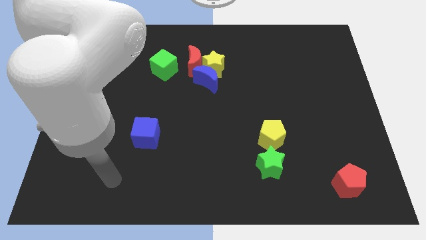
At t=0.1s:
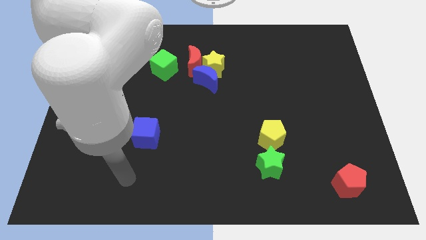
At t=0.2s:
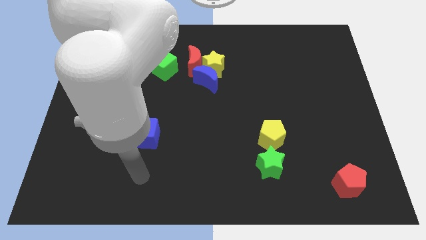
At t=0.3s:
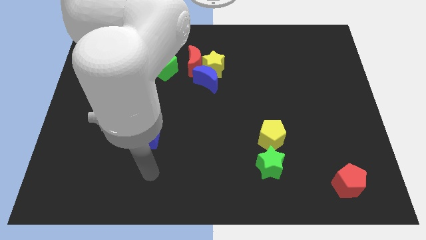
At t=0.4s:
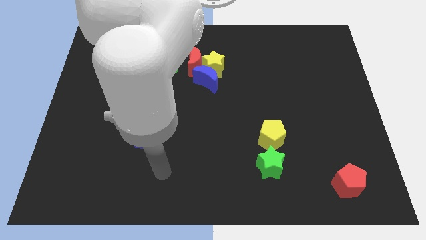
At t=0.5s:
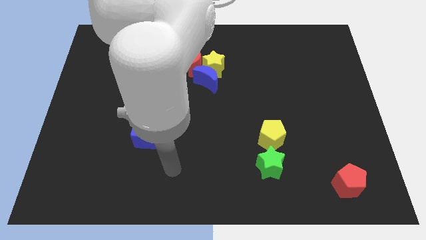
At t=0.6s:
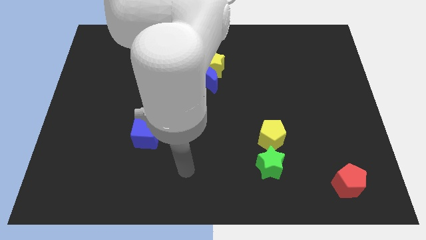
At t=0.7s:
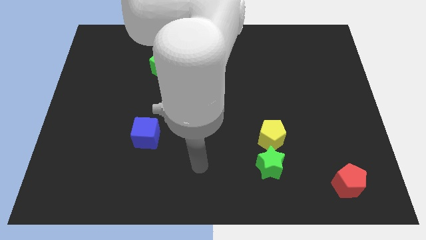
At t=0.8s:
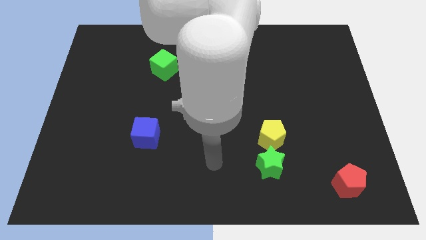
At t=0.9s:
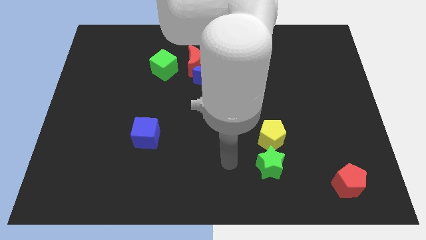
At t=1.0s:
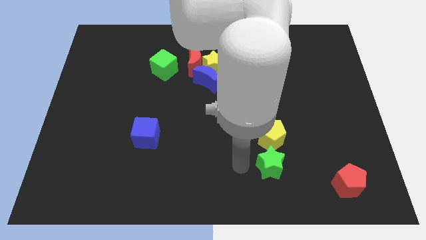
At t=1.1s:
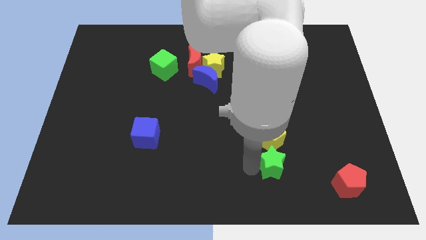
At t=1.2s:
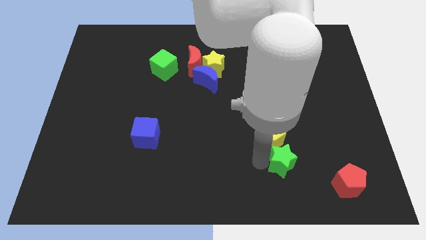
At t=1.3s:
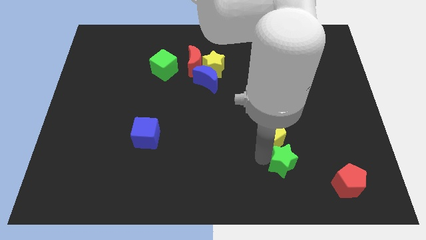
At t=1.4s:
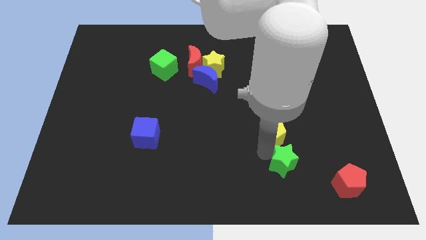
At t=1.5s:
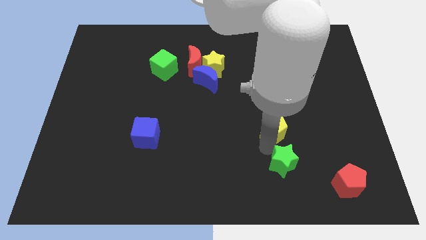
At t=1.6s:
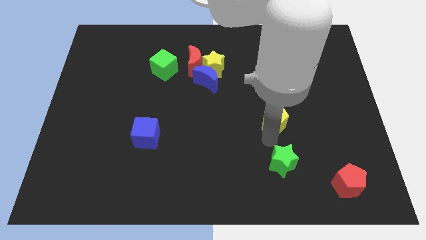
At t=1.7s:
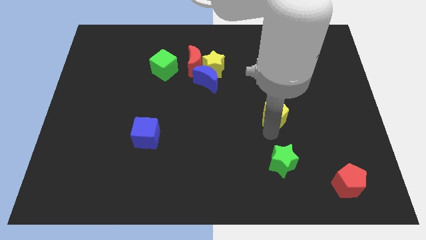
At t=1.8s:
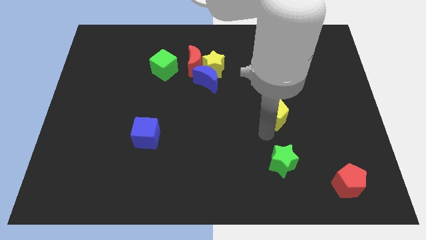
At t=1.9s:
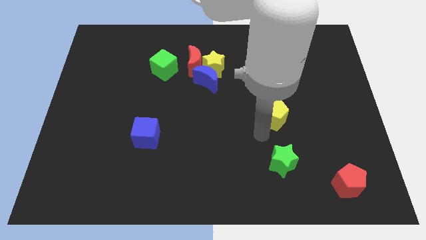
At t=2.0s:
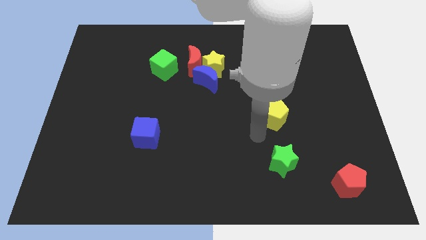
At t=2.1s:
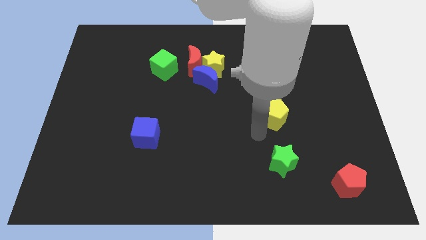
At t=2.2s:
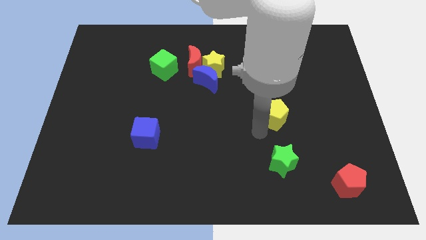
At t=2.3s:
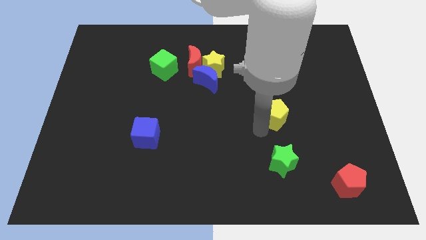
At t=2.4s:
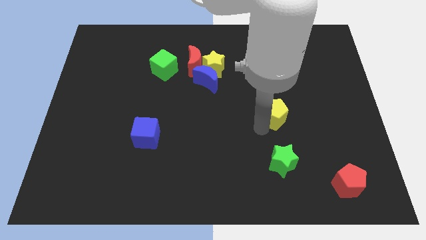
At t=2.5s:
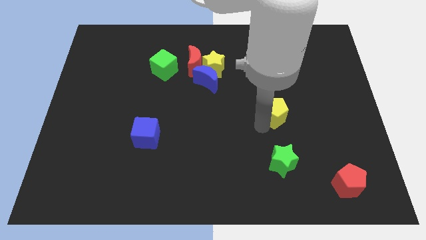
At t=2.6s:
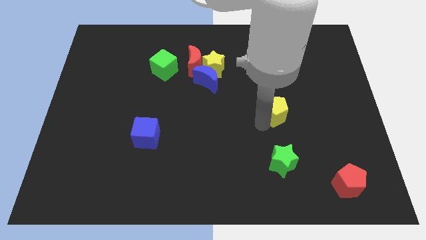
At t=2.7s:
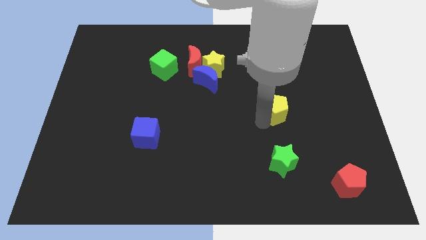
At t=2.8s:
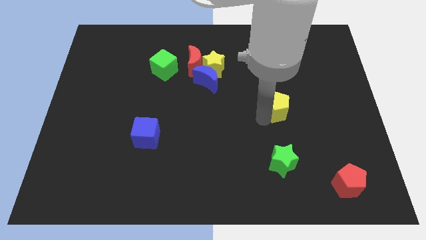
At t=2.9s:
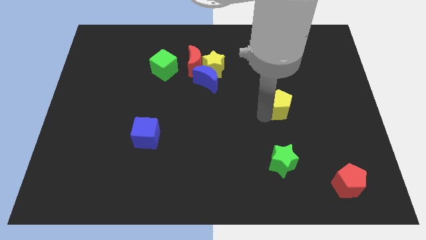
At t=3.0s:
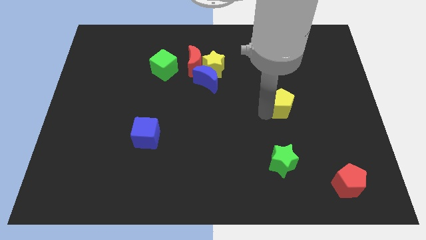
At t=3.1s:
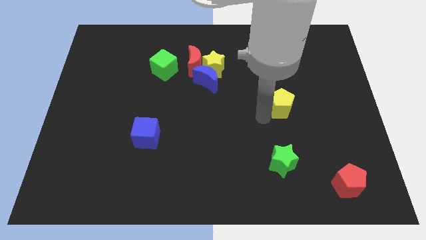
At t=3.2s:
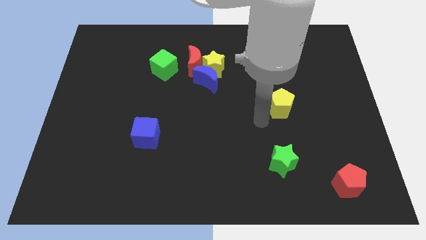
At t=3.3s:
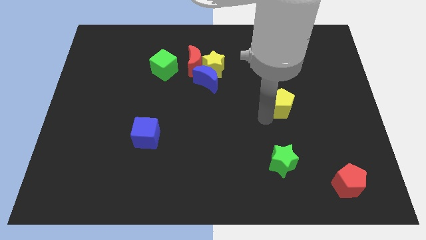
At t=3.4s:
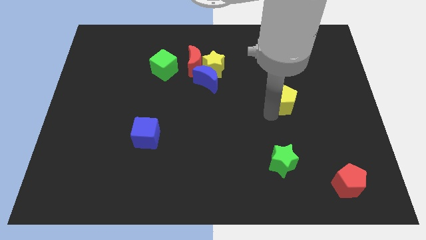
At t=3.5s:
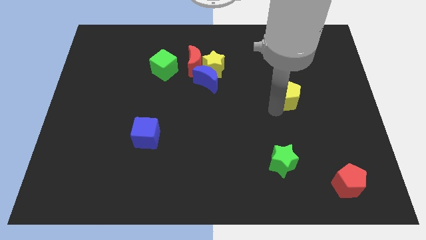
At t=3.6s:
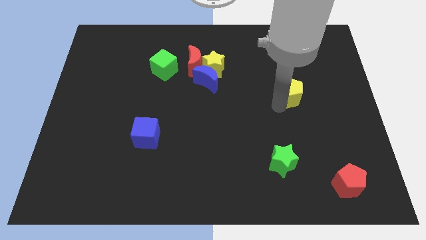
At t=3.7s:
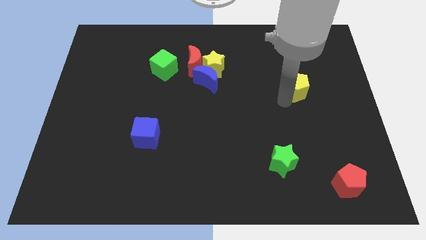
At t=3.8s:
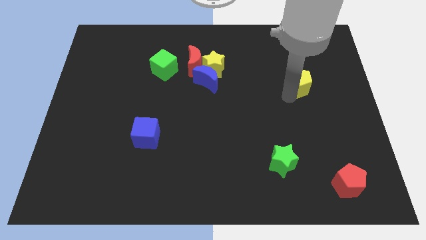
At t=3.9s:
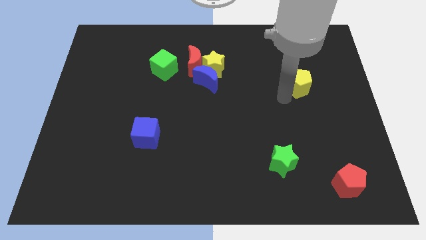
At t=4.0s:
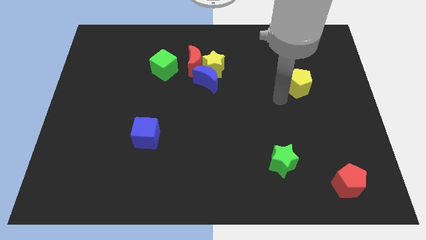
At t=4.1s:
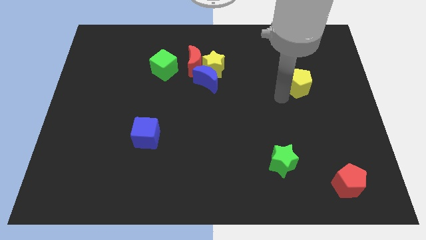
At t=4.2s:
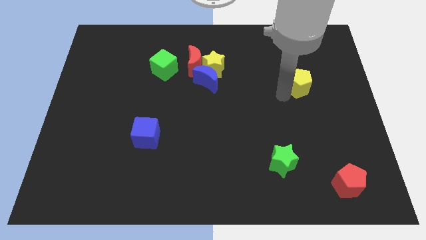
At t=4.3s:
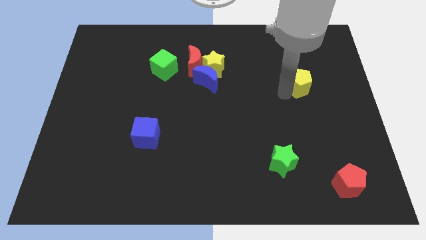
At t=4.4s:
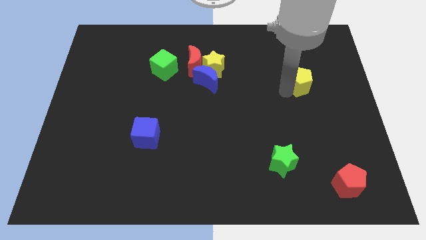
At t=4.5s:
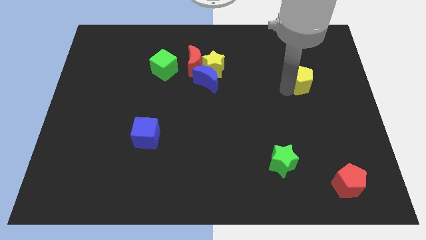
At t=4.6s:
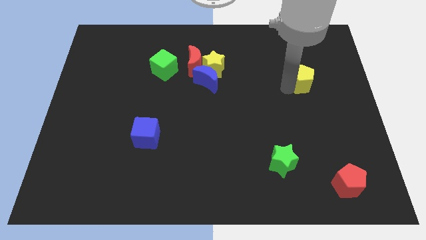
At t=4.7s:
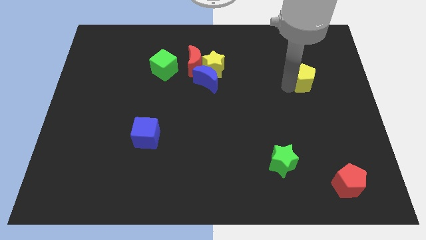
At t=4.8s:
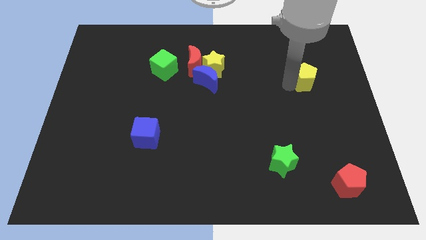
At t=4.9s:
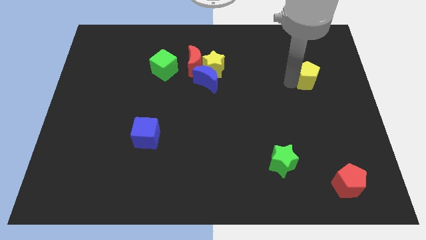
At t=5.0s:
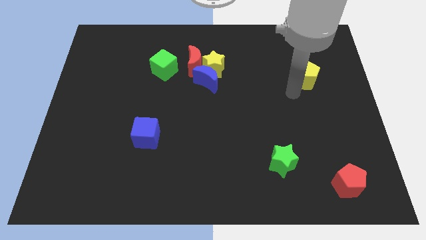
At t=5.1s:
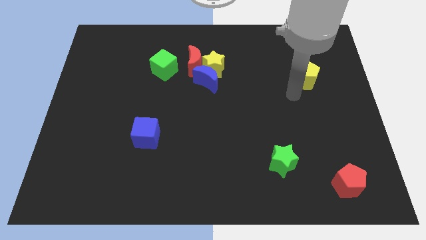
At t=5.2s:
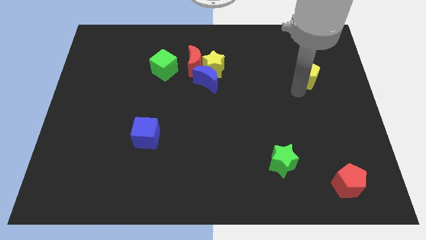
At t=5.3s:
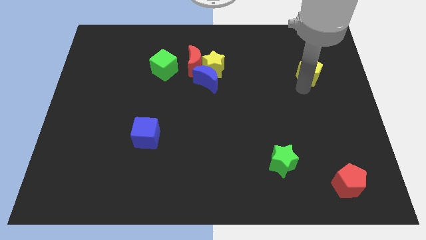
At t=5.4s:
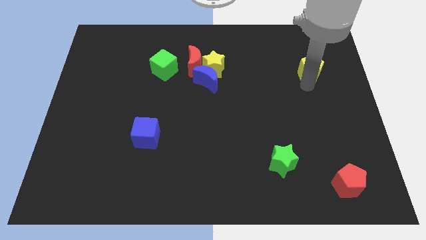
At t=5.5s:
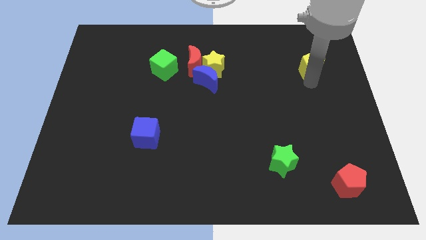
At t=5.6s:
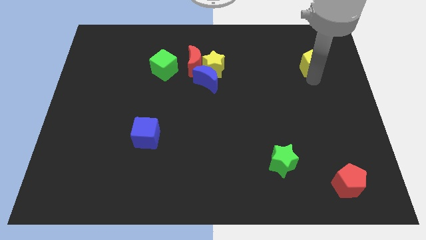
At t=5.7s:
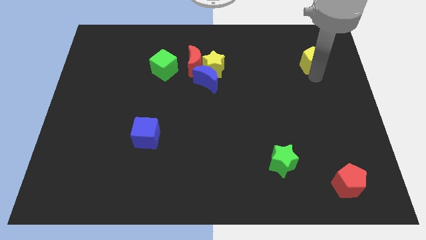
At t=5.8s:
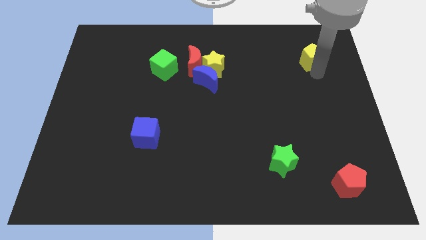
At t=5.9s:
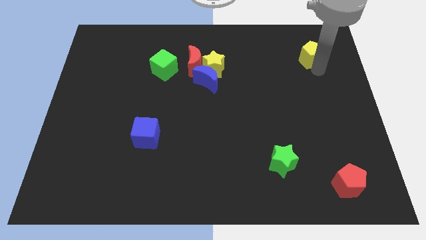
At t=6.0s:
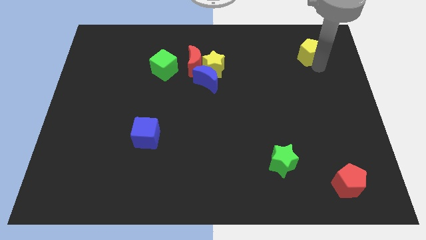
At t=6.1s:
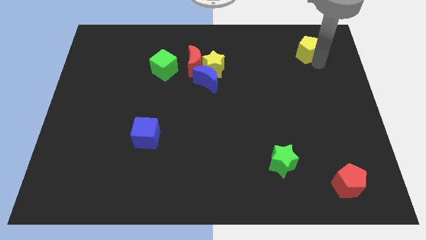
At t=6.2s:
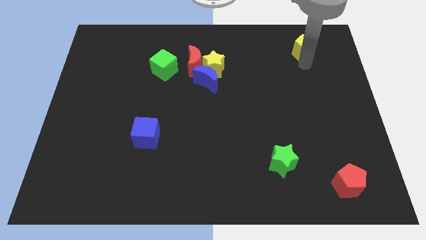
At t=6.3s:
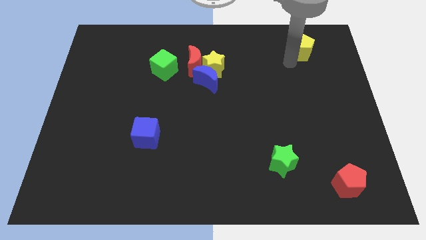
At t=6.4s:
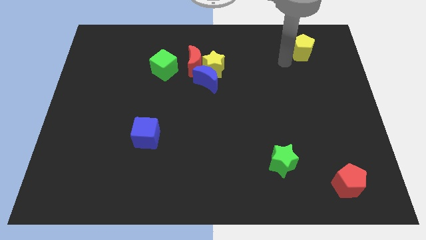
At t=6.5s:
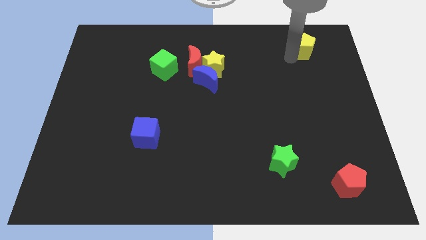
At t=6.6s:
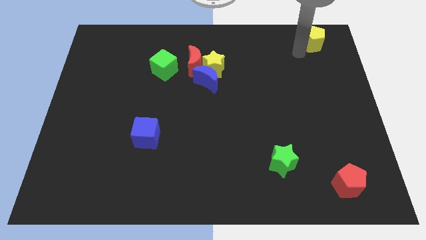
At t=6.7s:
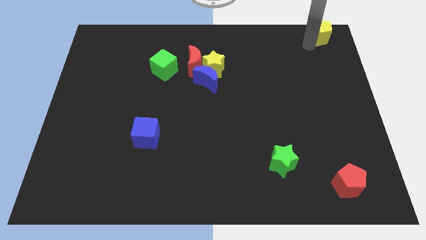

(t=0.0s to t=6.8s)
slide the yellow pentagon to the upper right corner
